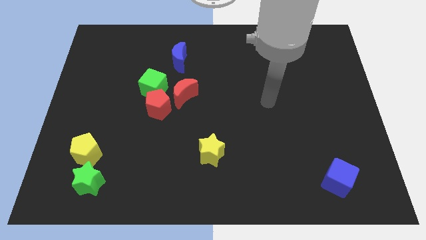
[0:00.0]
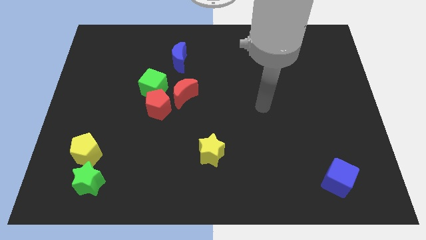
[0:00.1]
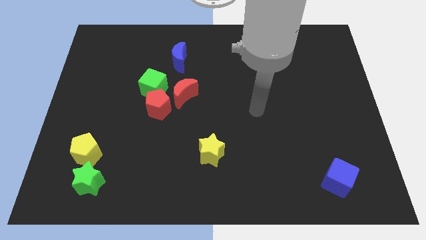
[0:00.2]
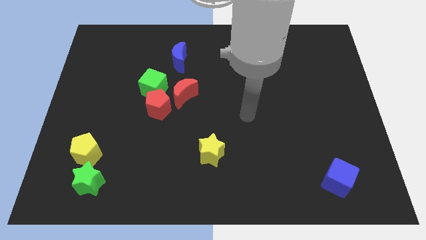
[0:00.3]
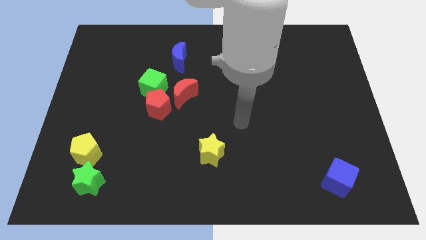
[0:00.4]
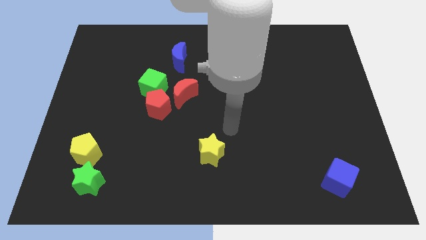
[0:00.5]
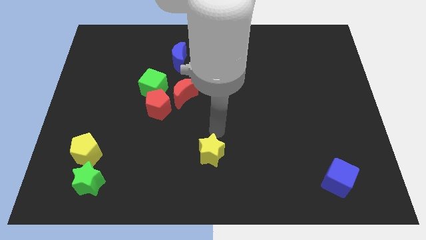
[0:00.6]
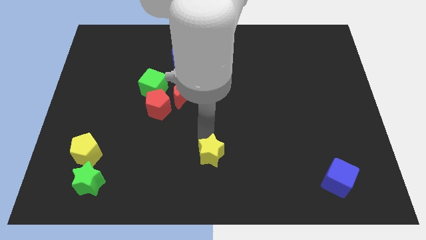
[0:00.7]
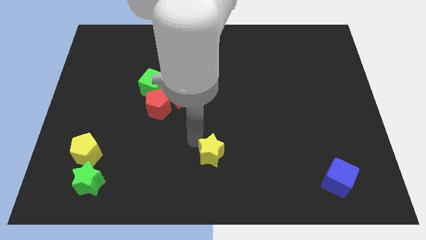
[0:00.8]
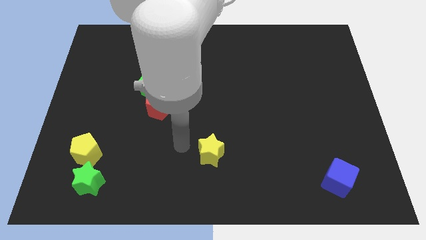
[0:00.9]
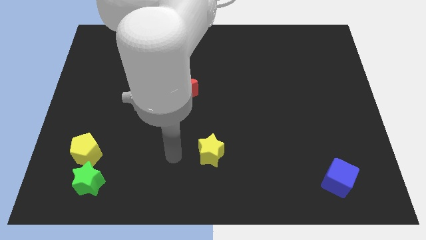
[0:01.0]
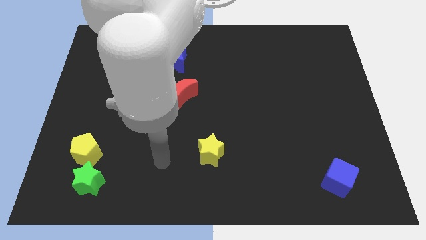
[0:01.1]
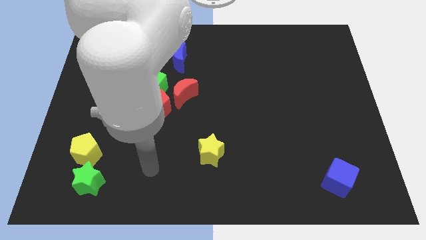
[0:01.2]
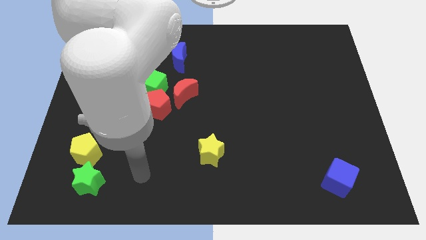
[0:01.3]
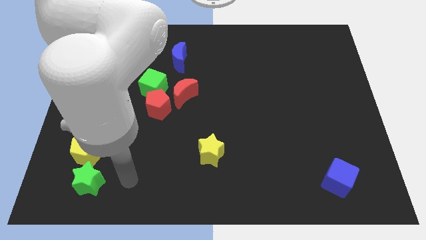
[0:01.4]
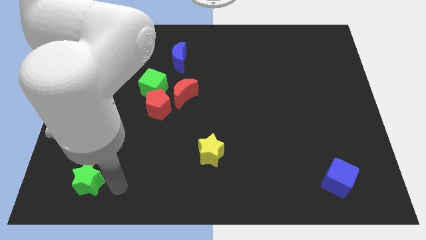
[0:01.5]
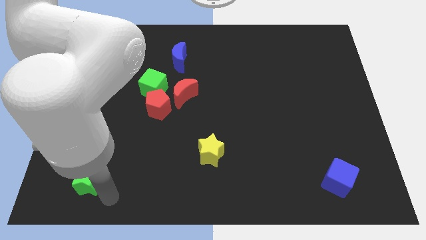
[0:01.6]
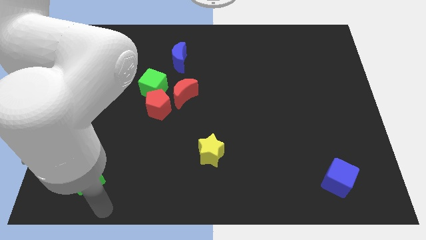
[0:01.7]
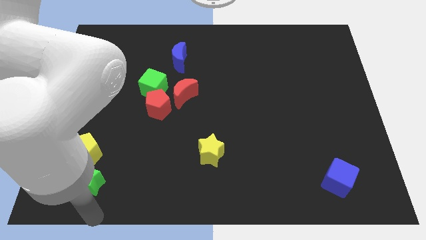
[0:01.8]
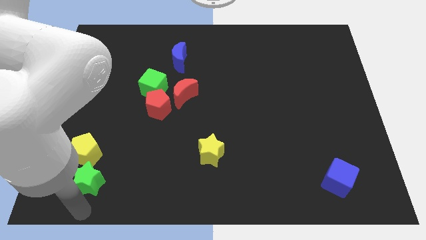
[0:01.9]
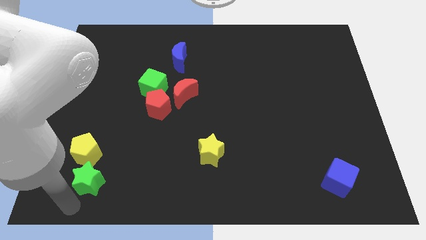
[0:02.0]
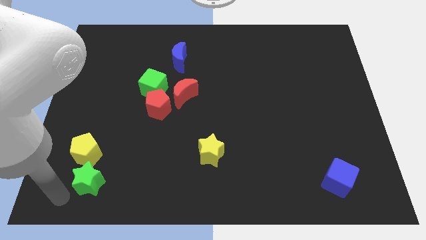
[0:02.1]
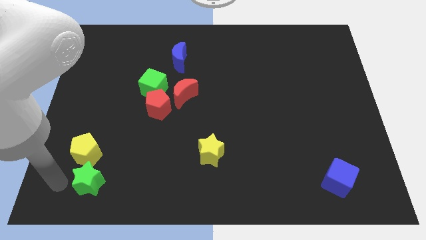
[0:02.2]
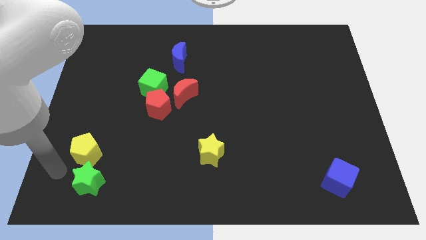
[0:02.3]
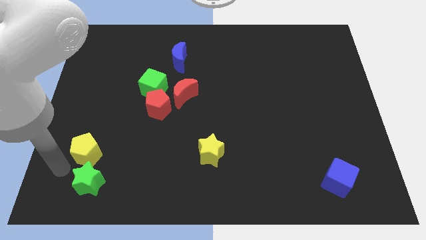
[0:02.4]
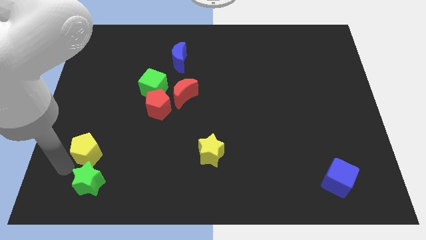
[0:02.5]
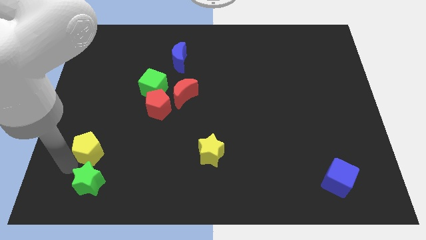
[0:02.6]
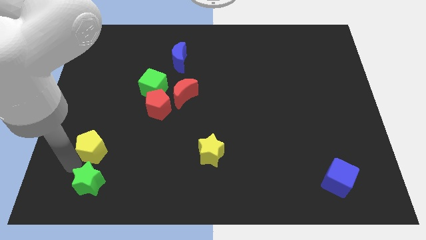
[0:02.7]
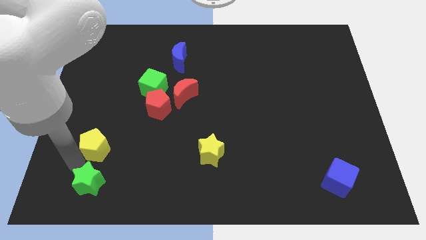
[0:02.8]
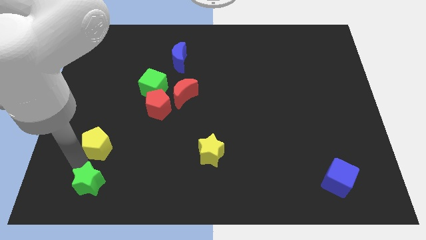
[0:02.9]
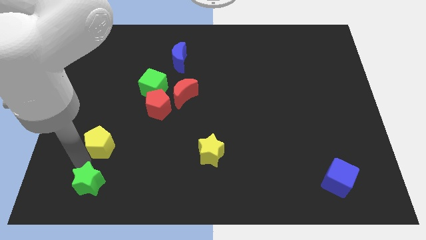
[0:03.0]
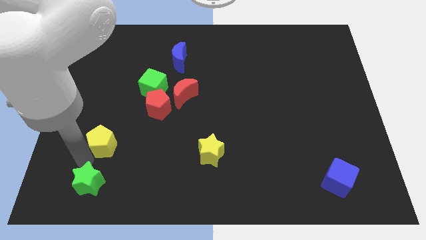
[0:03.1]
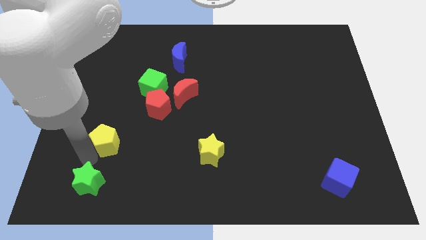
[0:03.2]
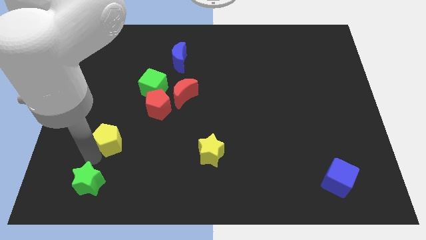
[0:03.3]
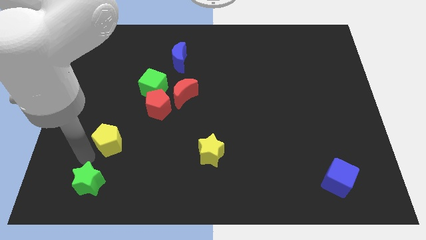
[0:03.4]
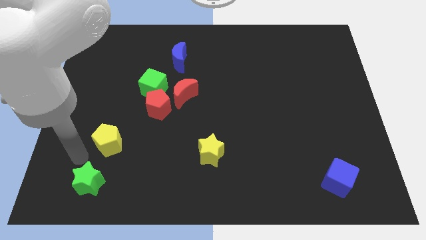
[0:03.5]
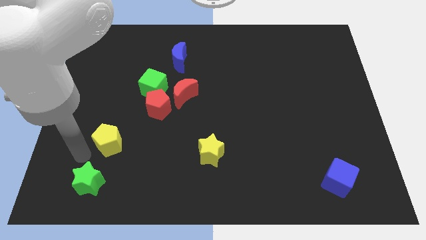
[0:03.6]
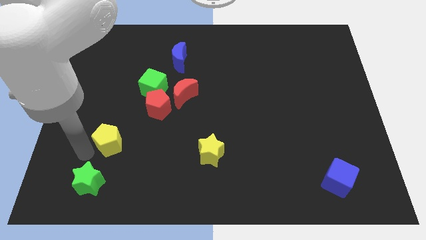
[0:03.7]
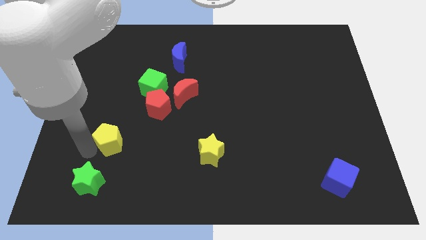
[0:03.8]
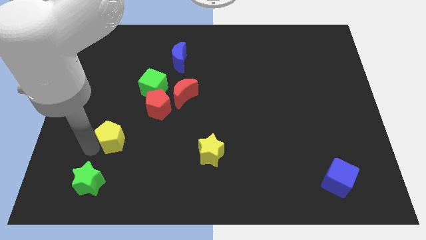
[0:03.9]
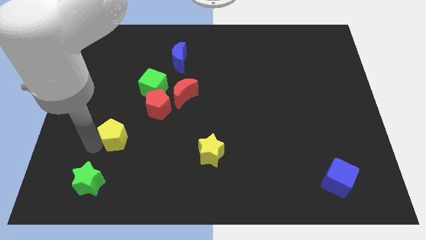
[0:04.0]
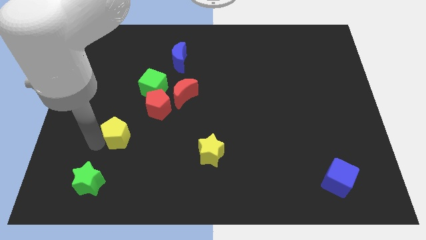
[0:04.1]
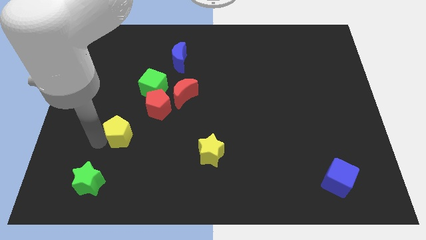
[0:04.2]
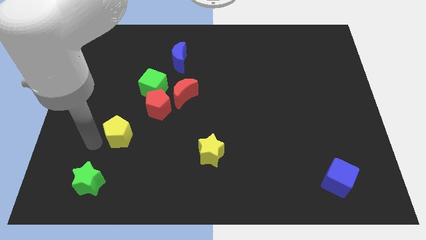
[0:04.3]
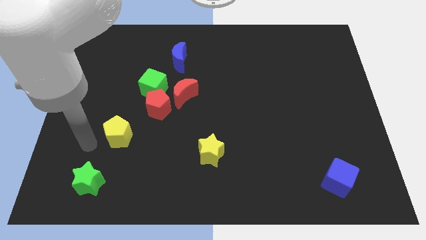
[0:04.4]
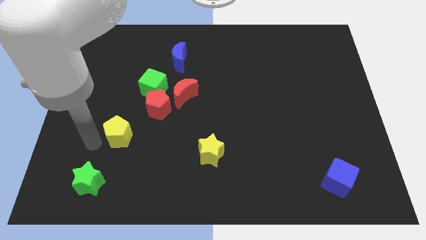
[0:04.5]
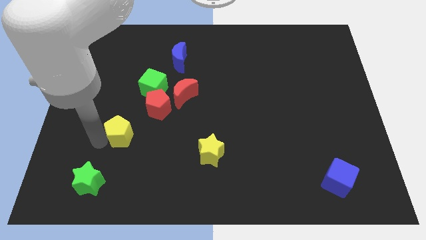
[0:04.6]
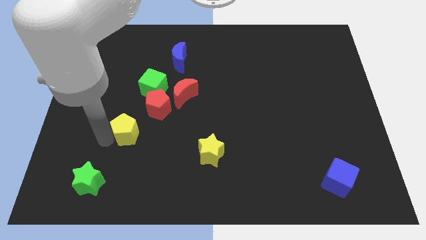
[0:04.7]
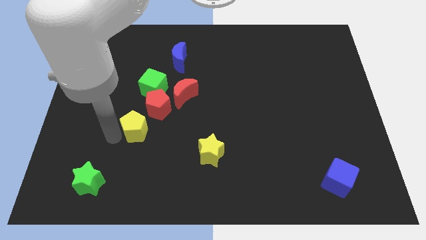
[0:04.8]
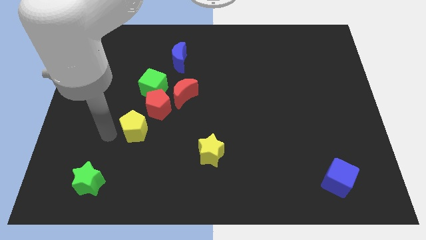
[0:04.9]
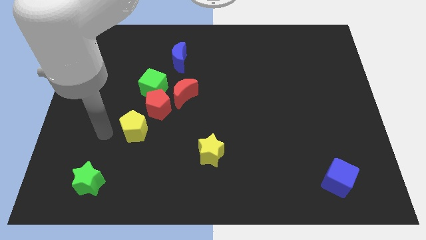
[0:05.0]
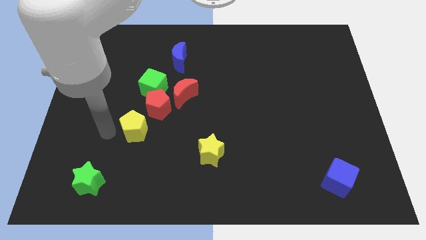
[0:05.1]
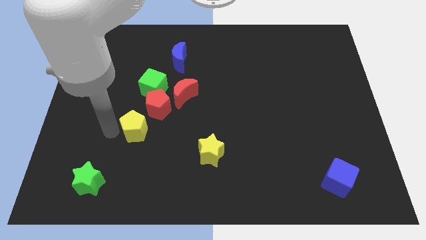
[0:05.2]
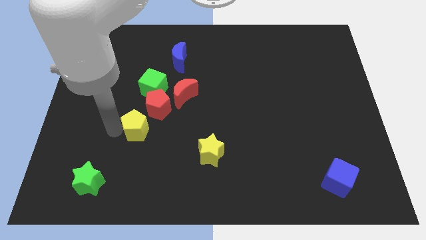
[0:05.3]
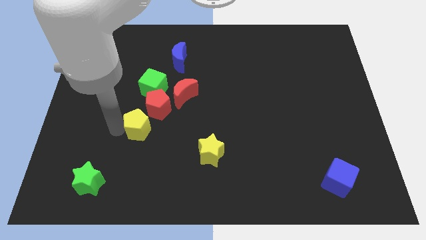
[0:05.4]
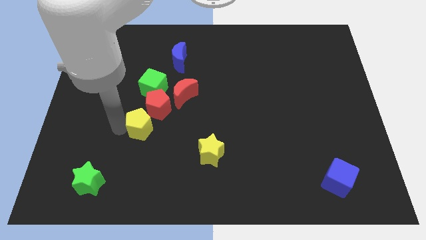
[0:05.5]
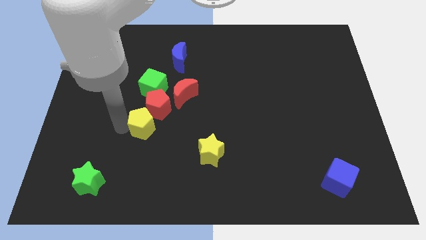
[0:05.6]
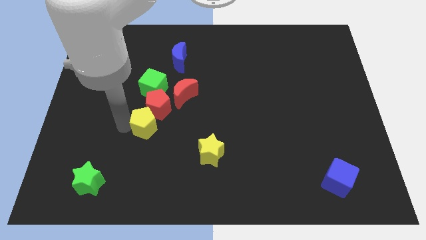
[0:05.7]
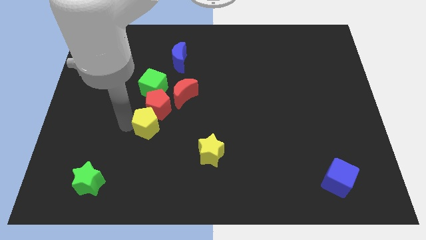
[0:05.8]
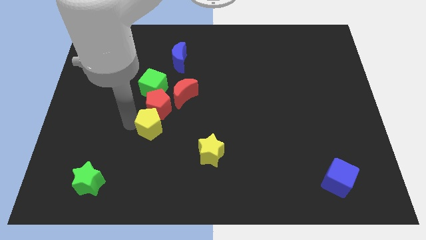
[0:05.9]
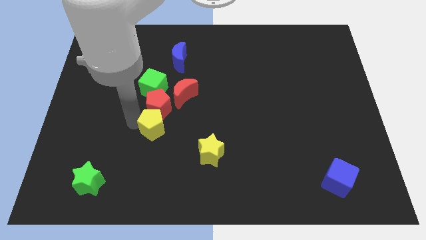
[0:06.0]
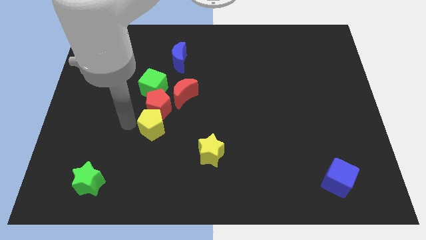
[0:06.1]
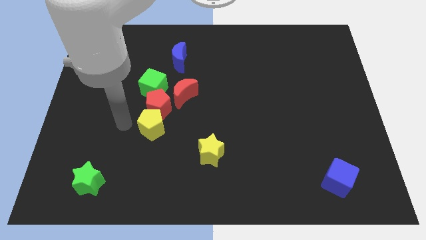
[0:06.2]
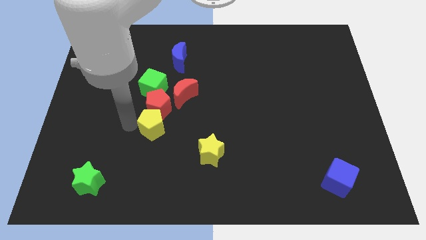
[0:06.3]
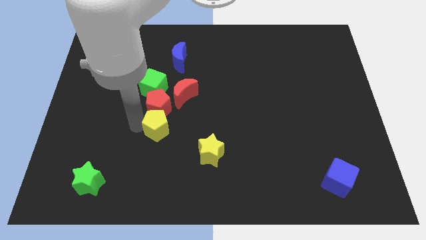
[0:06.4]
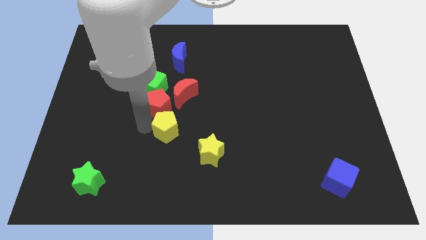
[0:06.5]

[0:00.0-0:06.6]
slide the yellow pentagon to the bottom side of the red moon
